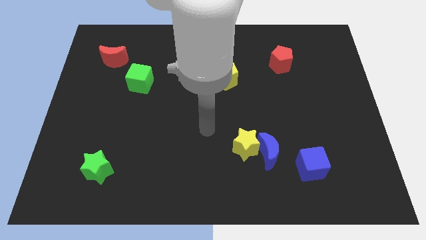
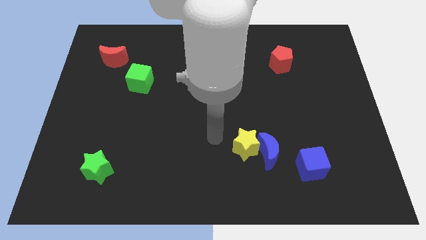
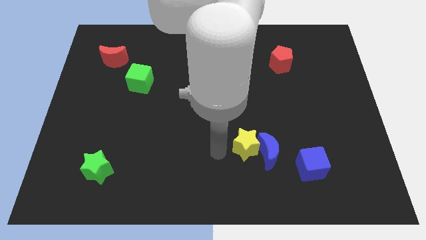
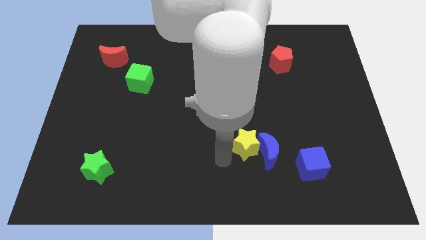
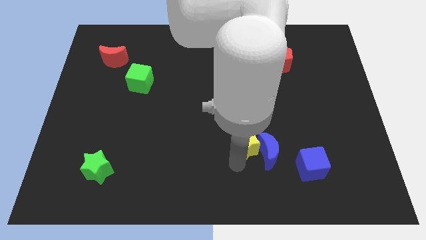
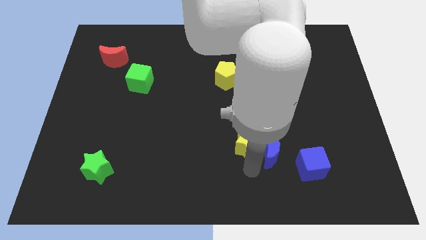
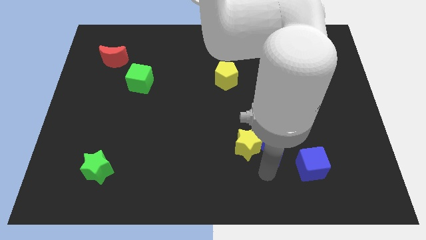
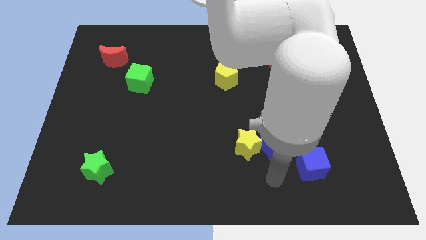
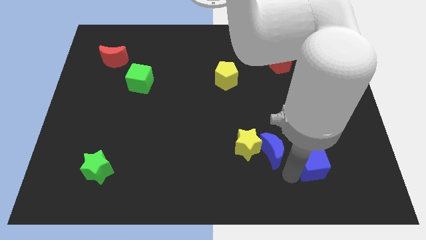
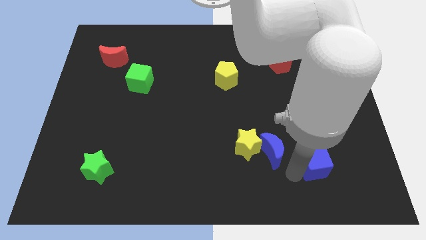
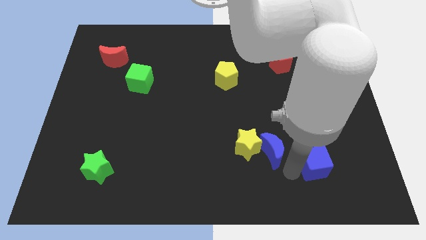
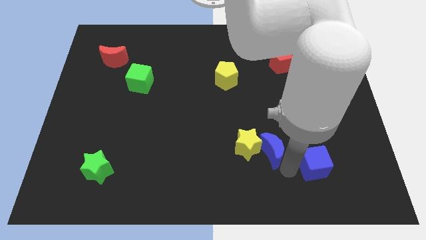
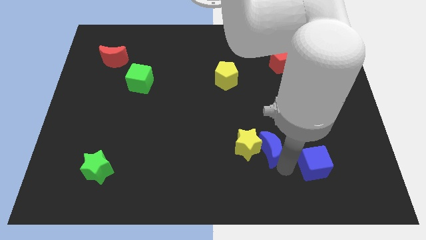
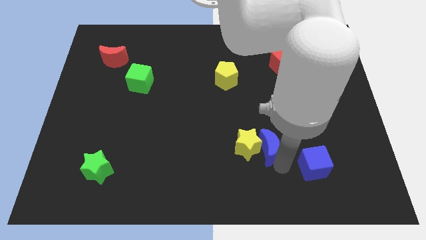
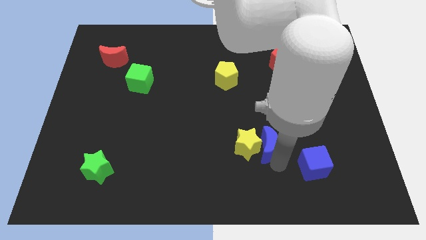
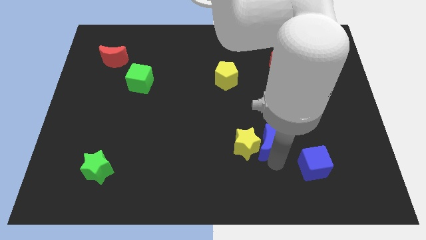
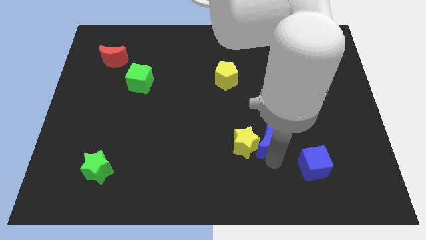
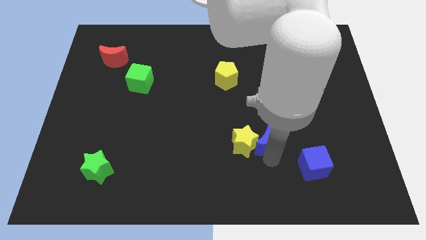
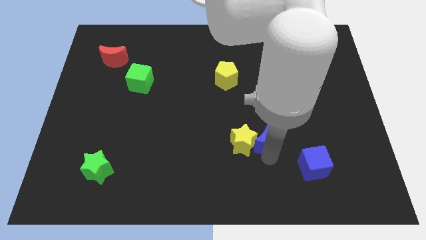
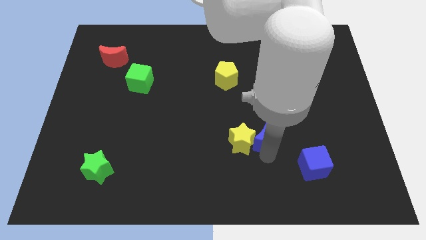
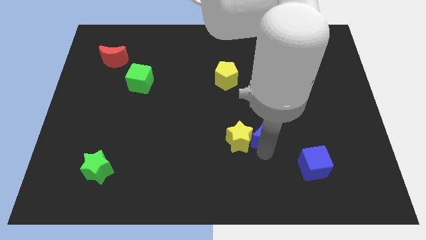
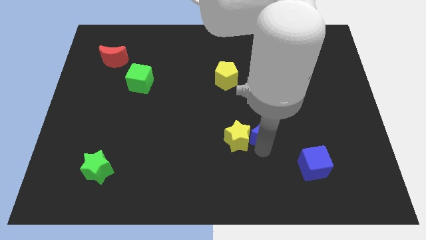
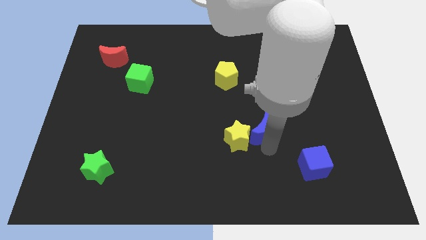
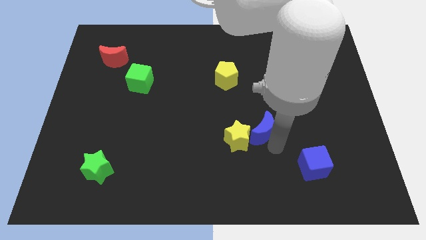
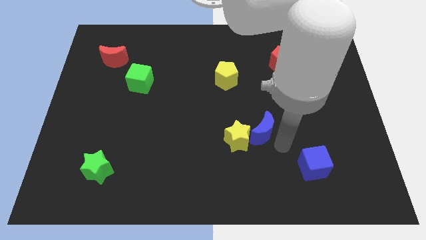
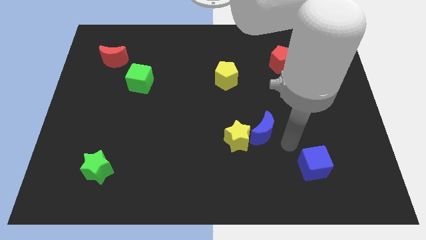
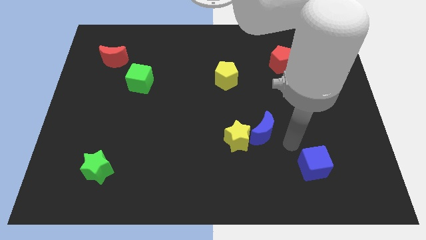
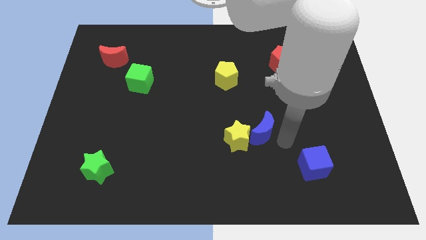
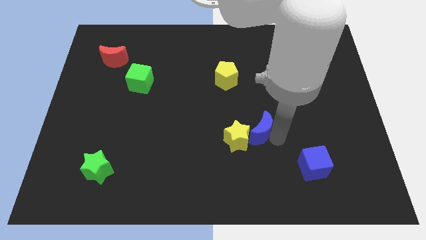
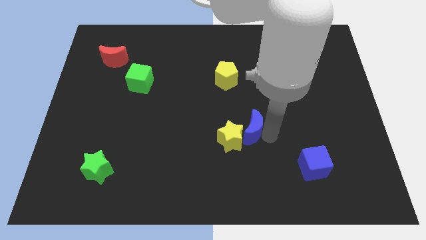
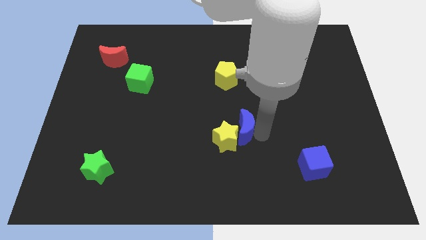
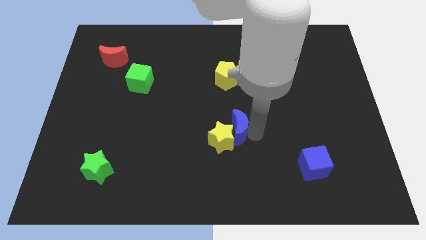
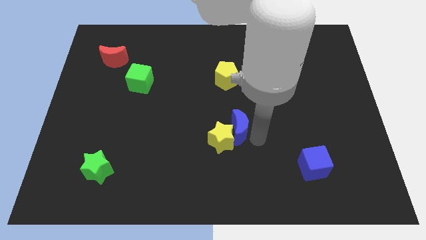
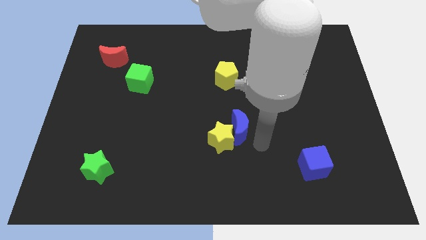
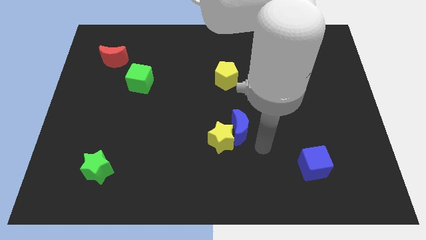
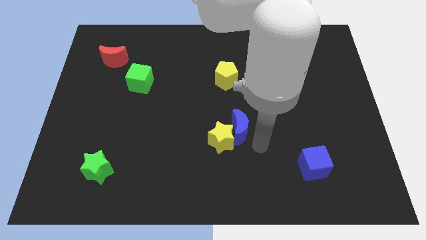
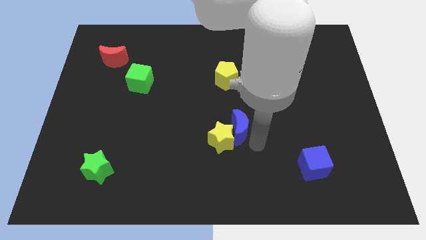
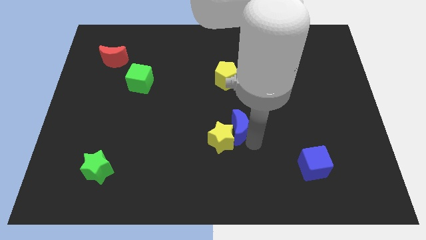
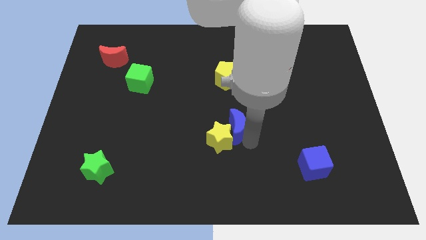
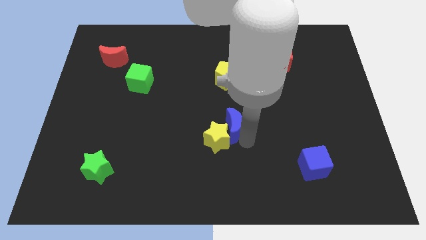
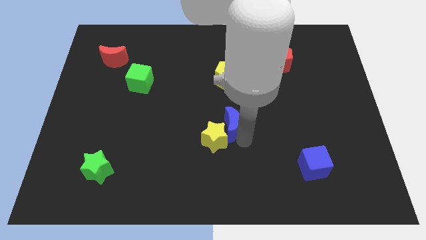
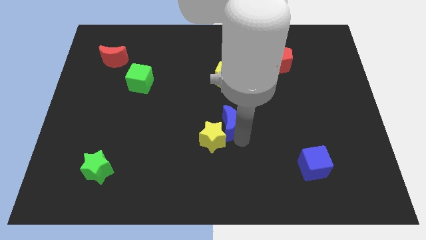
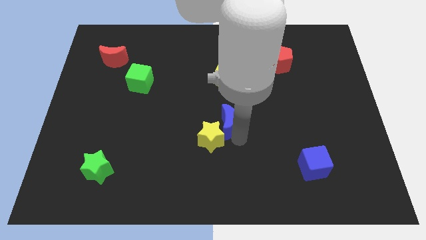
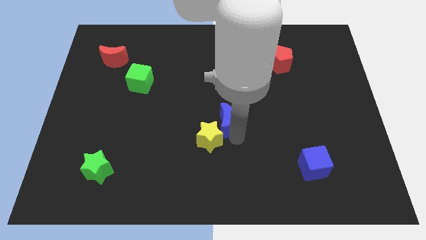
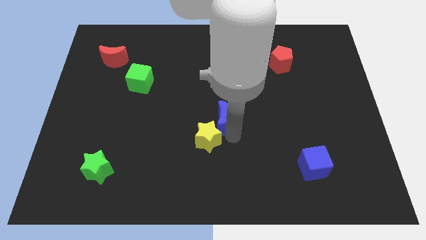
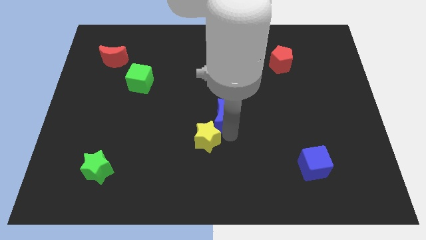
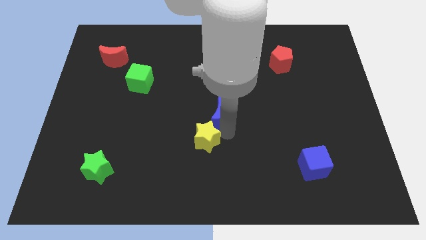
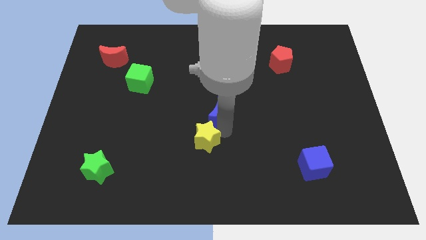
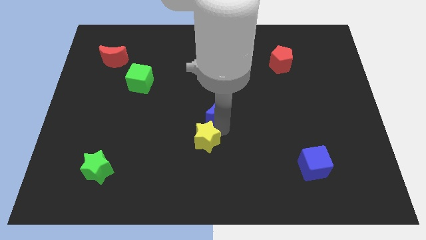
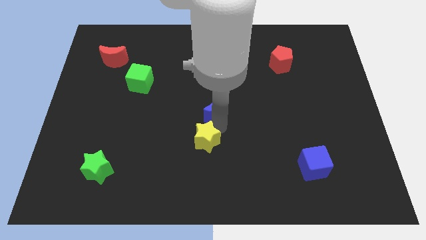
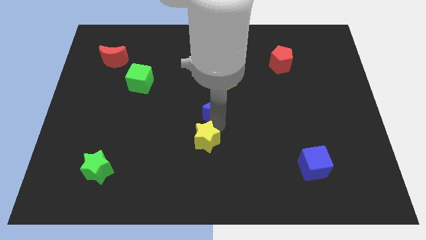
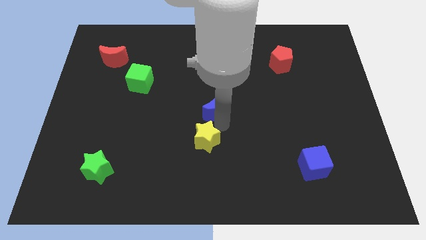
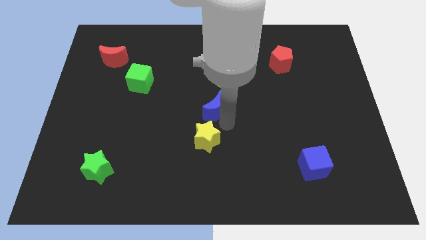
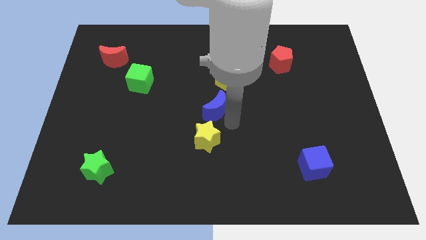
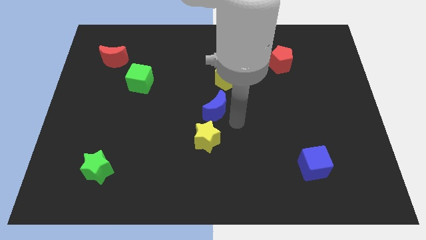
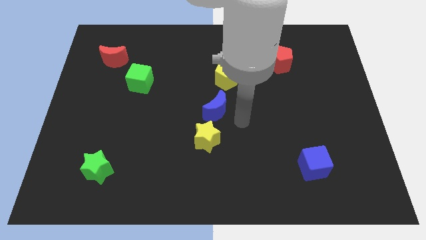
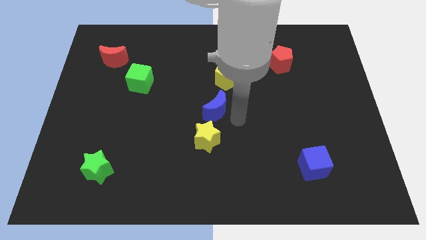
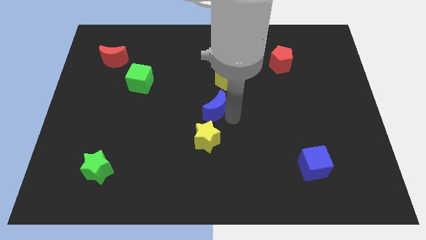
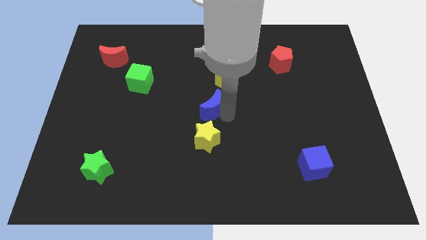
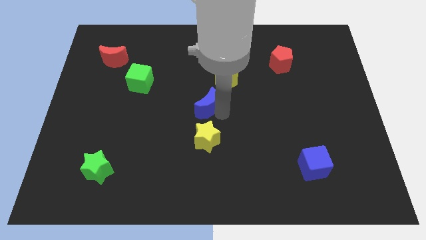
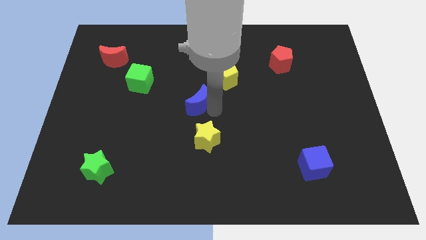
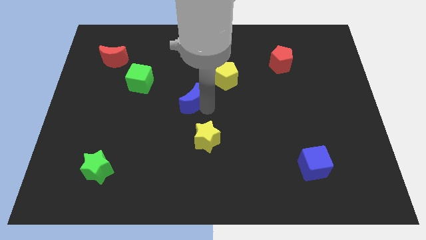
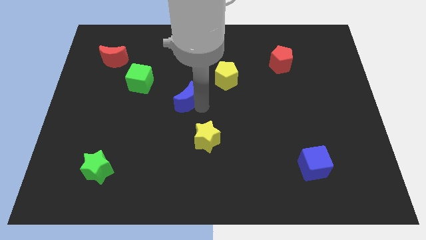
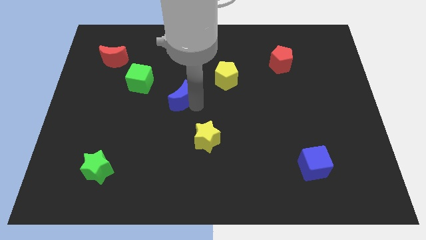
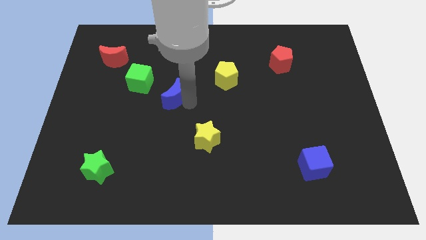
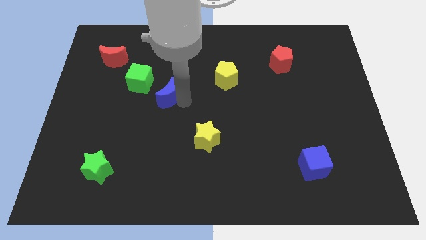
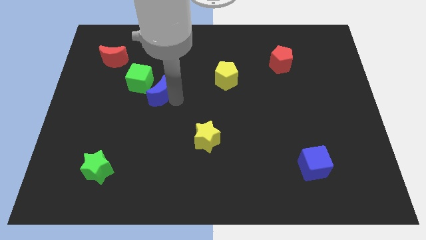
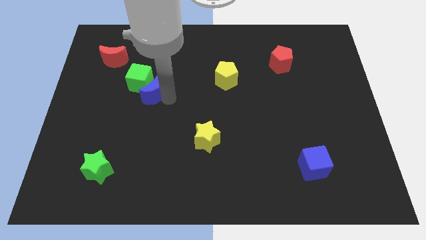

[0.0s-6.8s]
push the blue moon next to the green cube

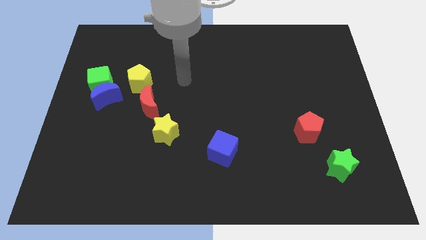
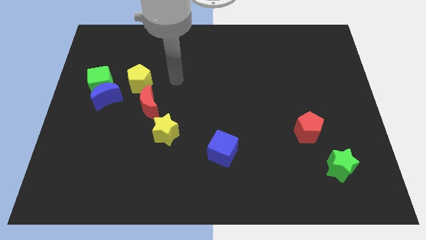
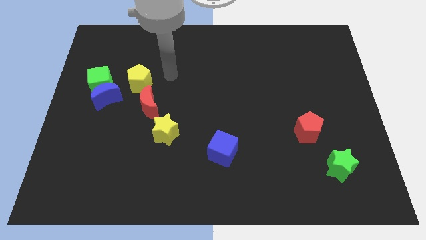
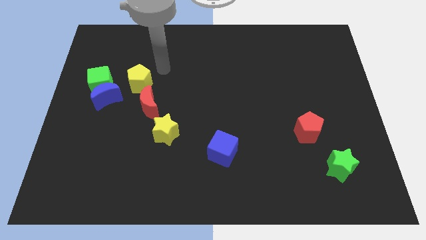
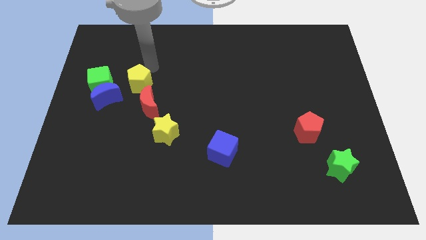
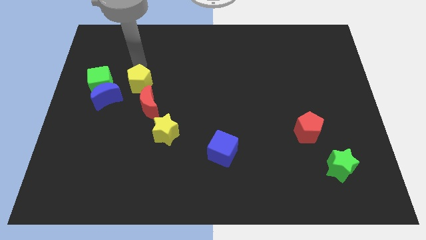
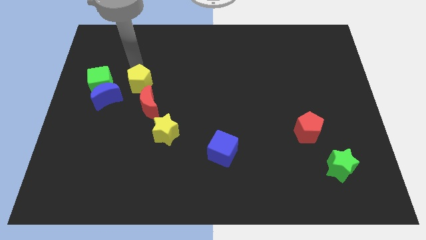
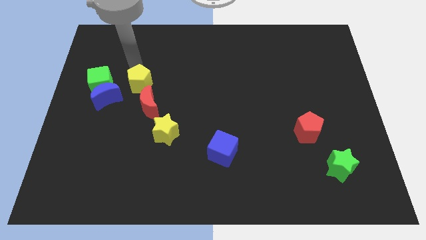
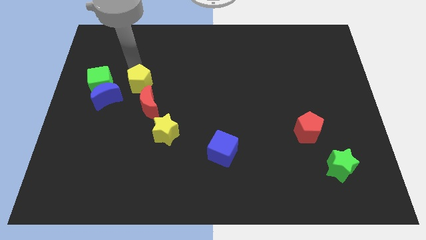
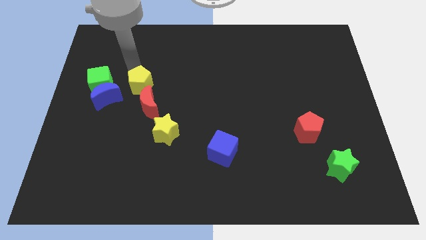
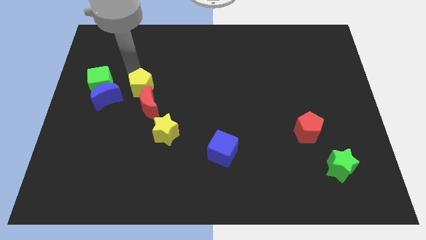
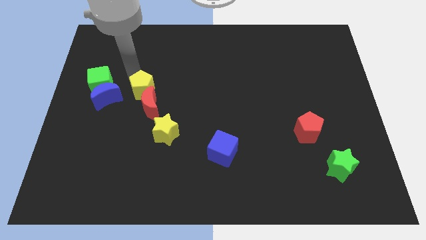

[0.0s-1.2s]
move the yellow pentagon towards the red moon
